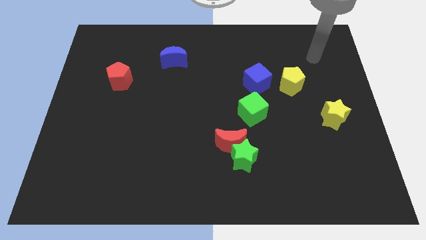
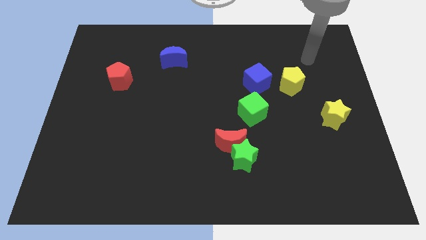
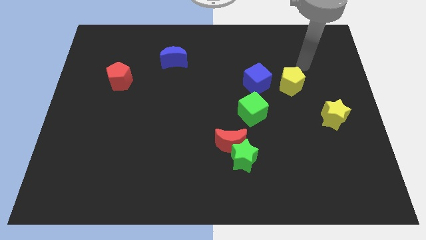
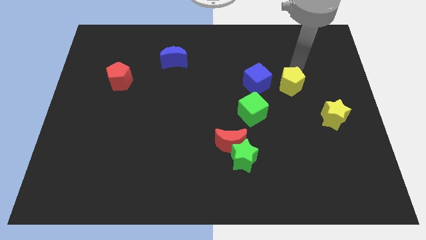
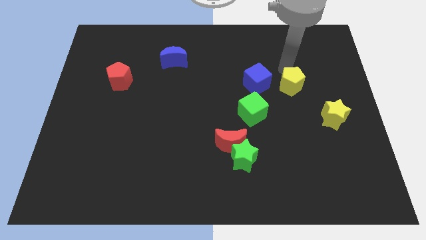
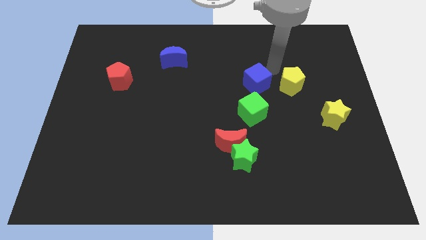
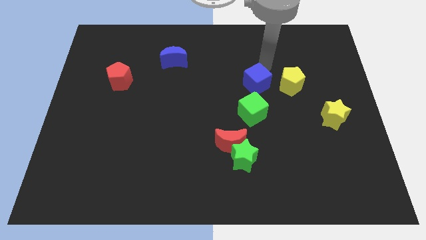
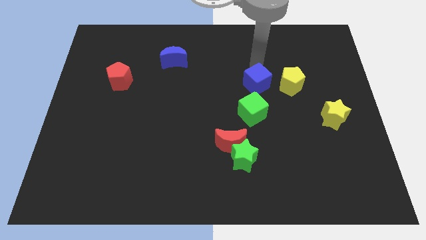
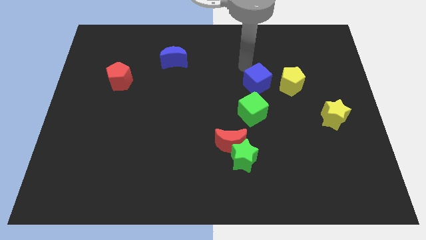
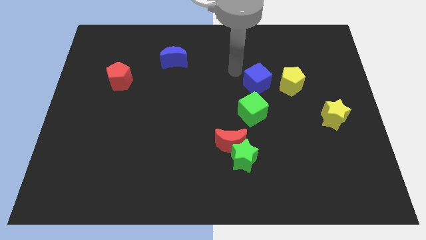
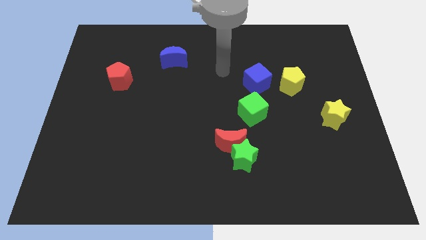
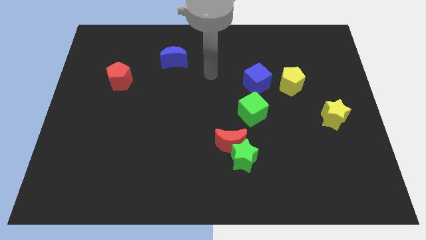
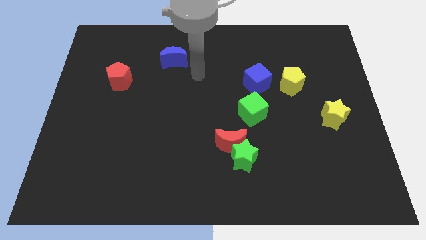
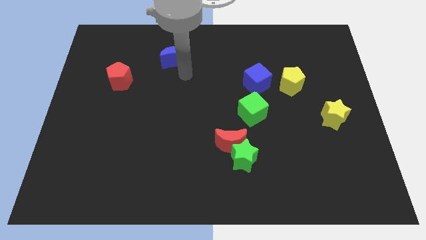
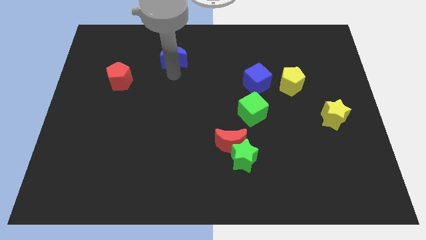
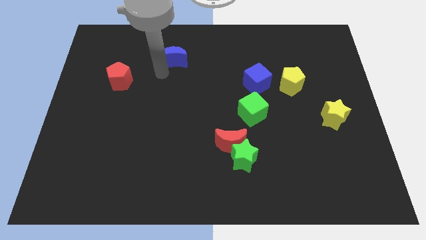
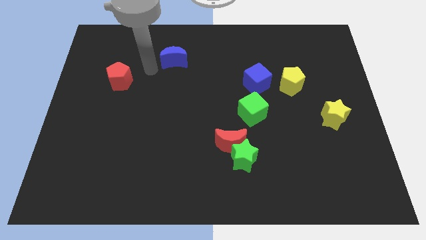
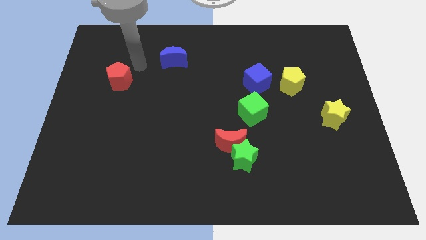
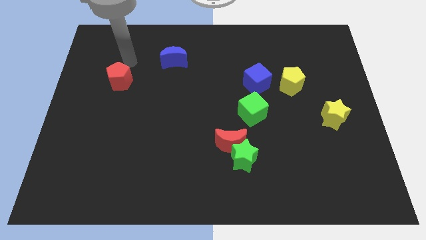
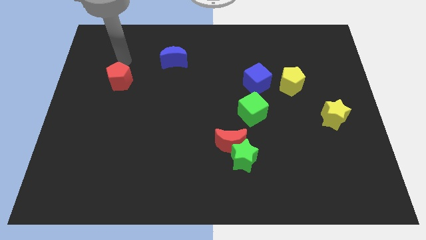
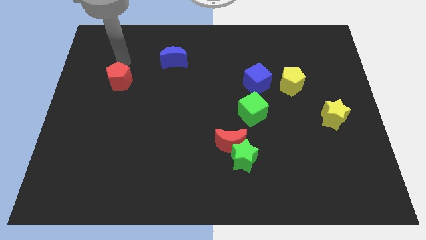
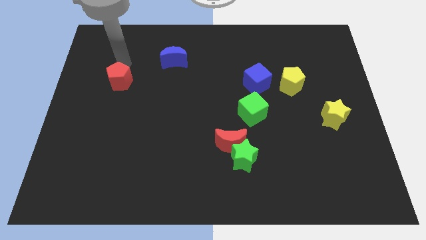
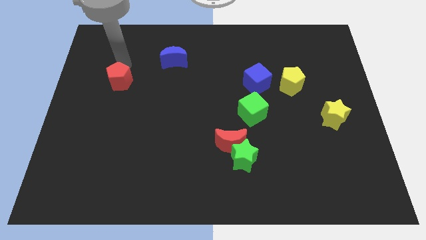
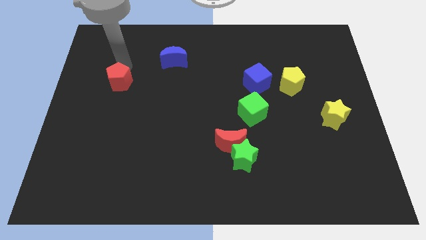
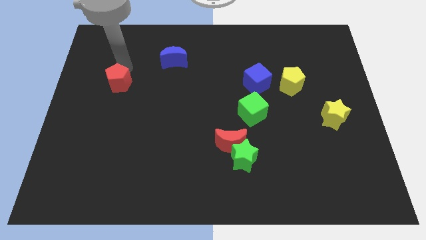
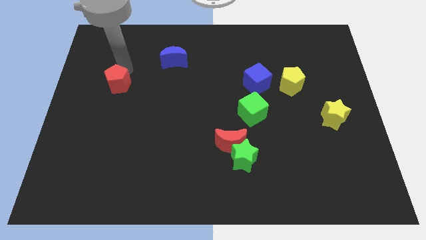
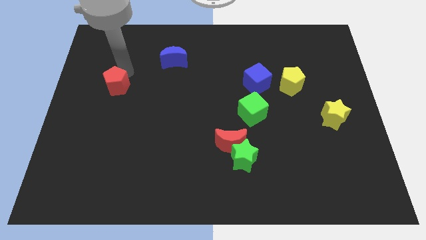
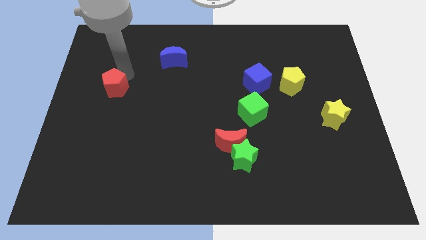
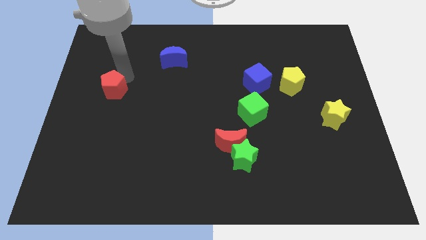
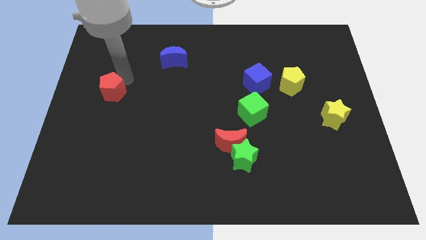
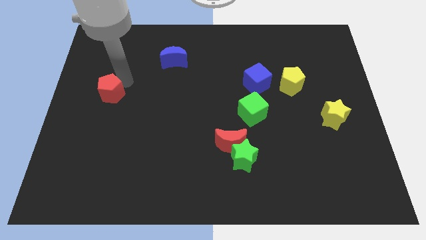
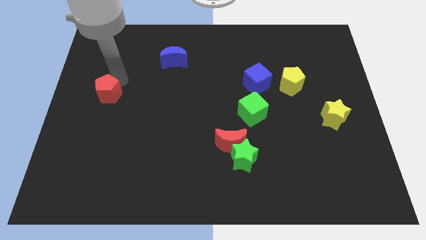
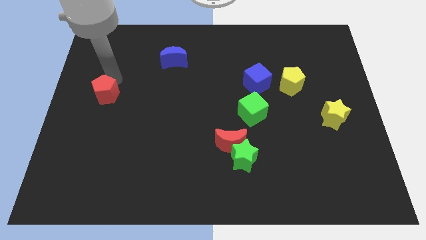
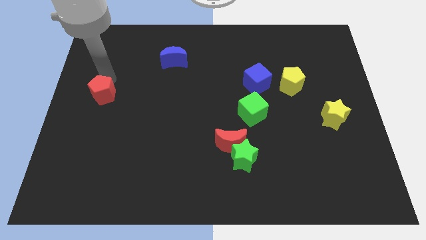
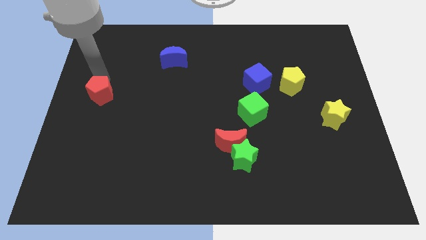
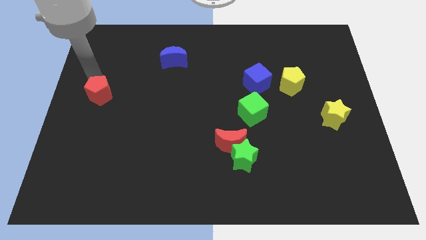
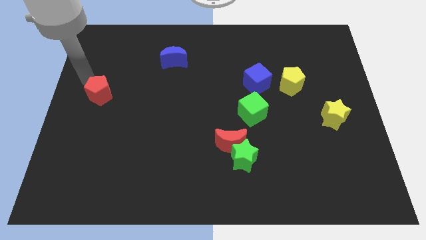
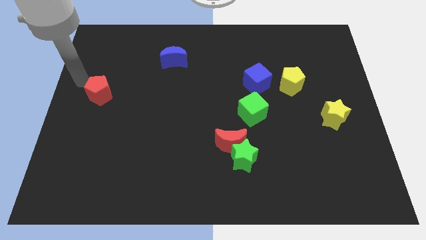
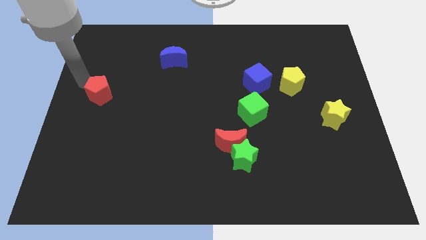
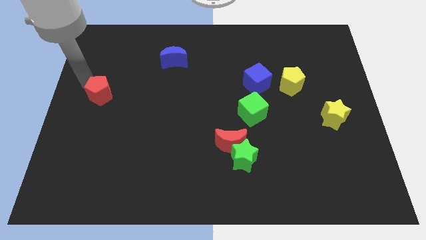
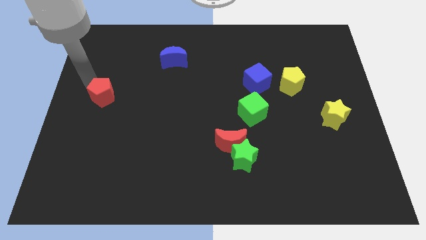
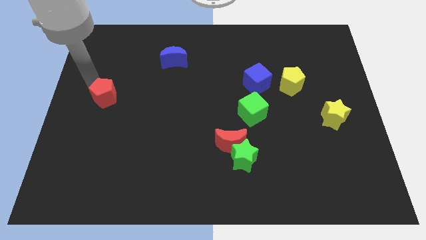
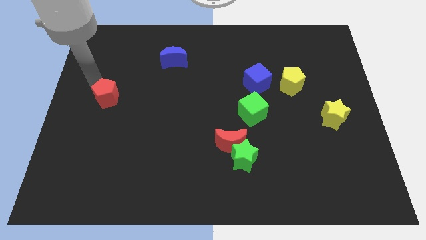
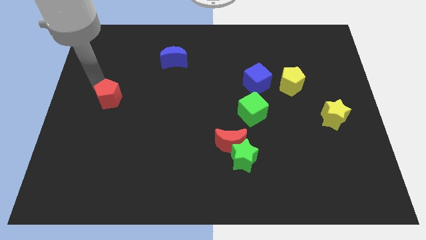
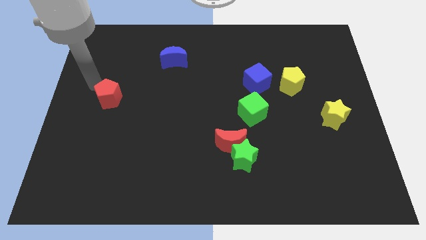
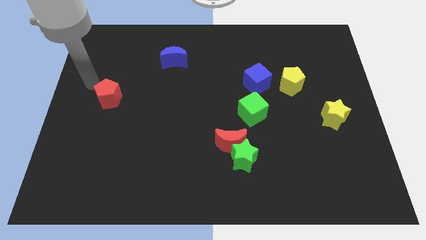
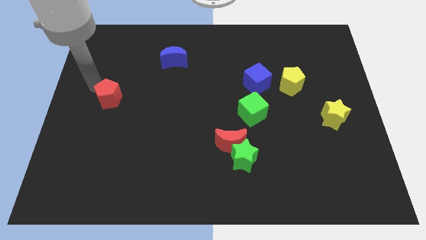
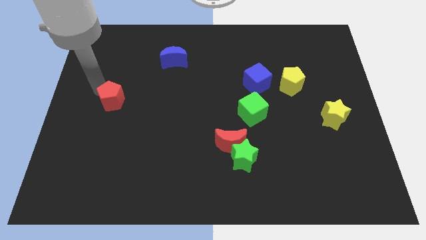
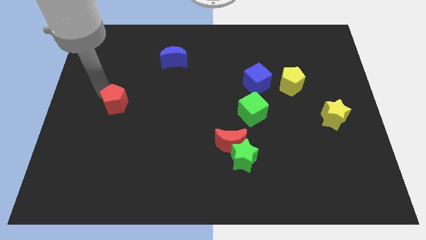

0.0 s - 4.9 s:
push the red pentagon a little bit down

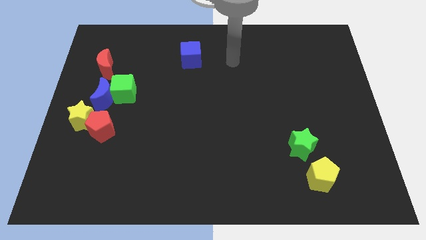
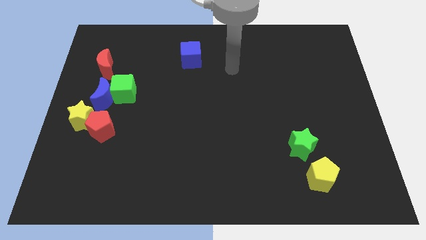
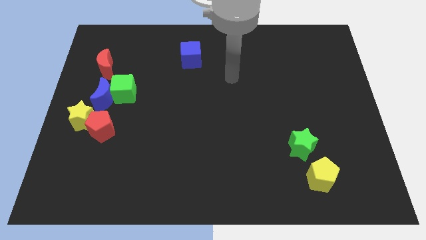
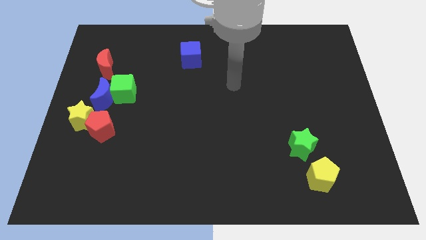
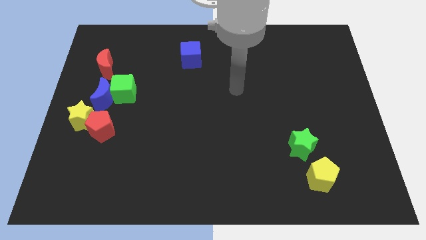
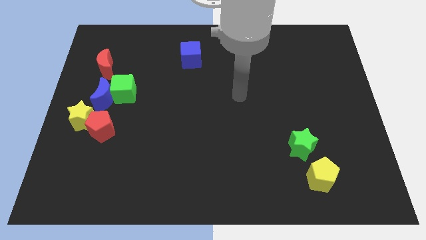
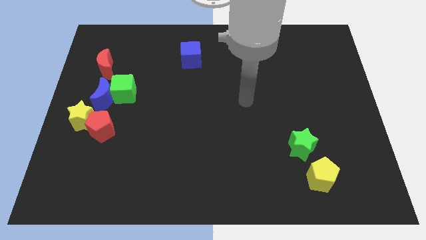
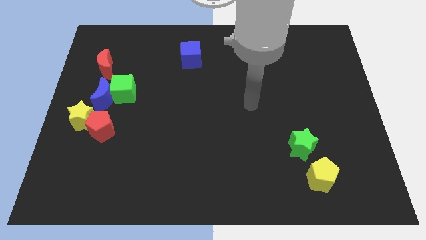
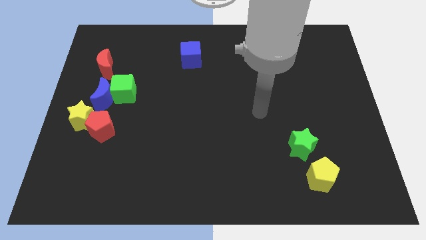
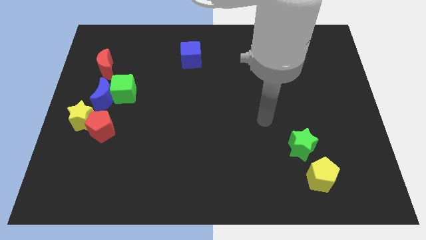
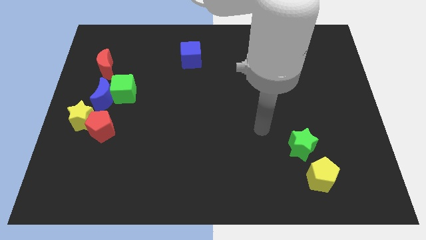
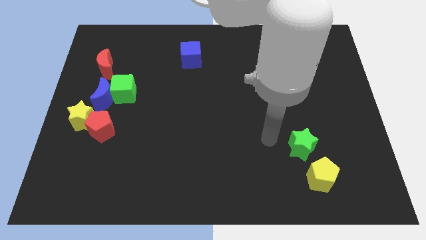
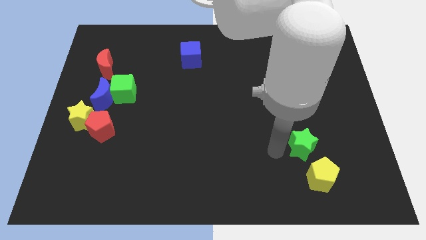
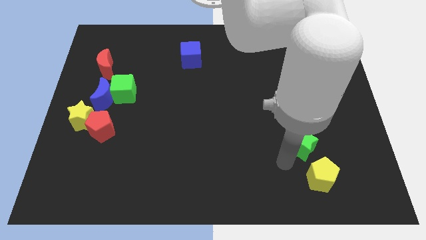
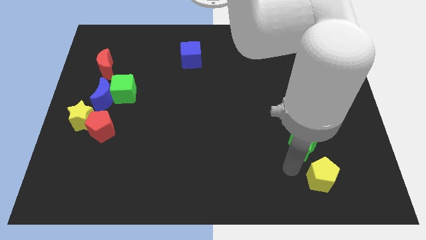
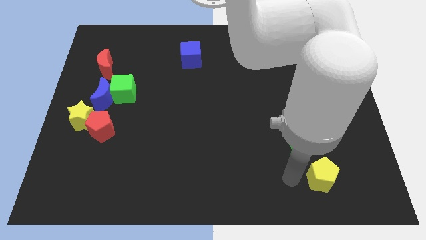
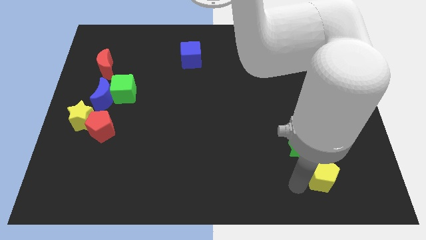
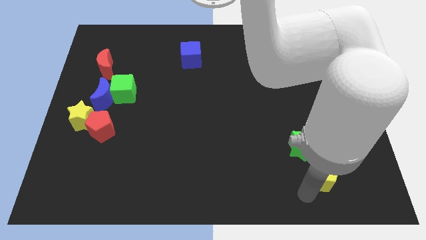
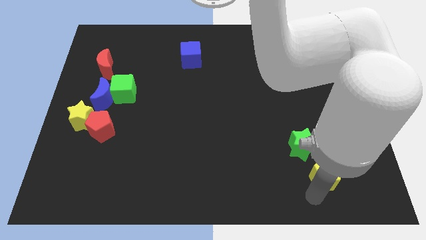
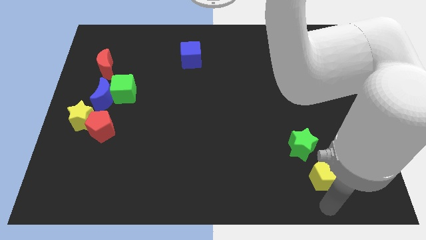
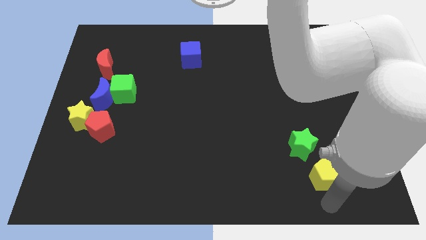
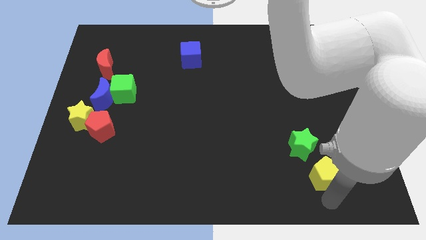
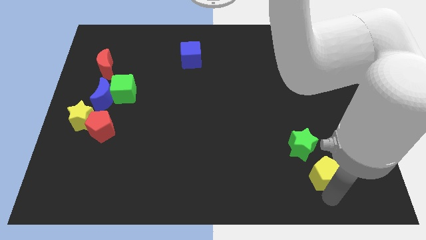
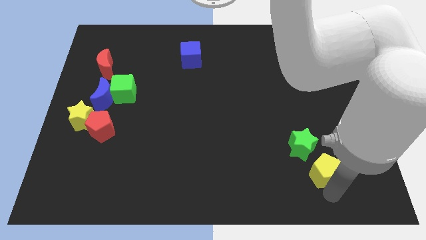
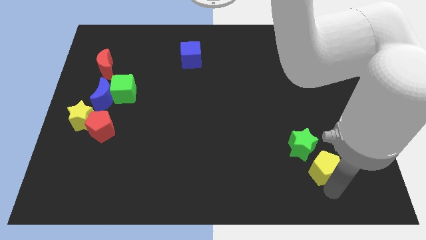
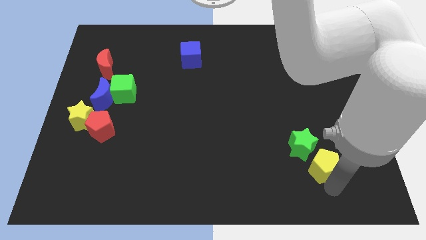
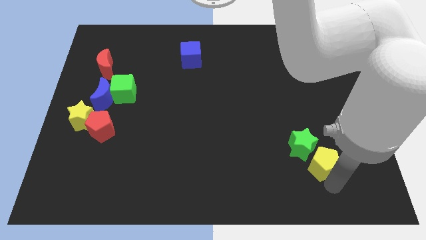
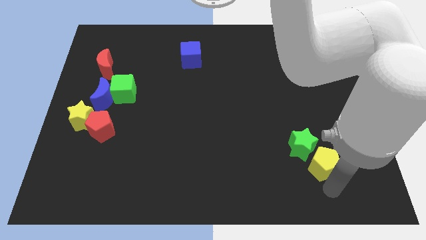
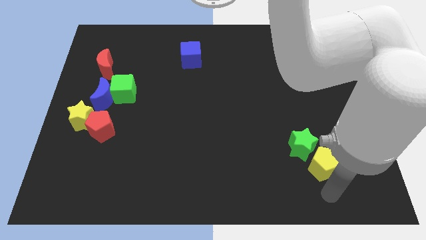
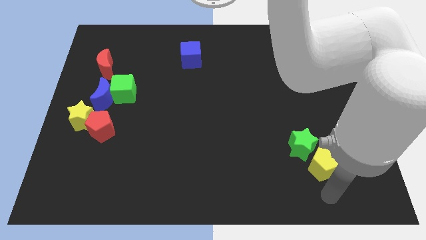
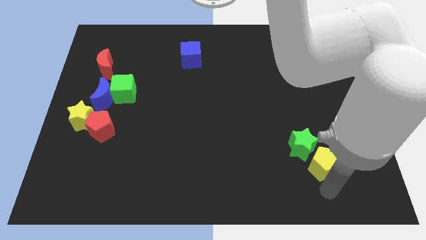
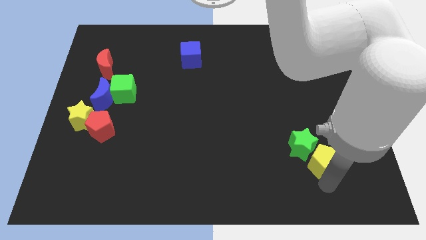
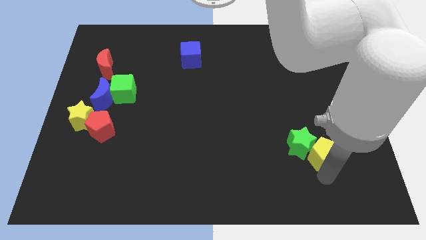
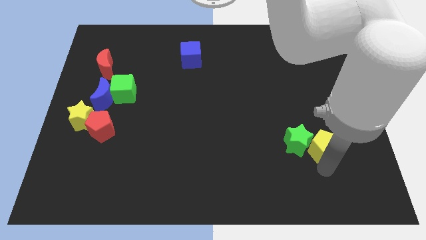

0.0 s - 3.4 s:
slightly push the yellow pentagon up
